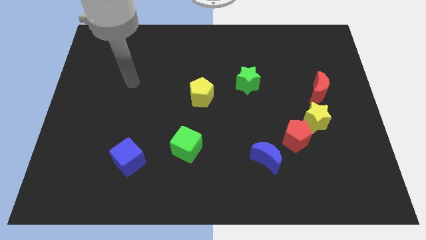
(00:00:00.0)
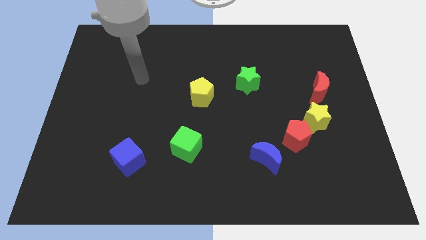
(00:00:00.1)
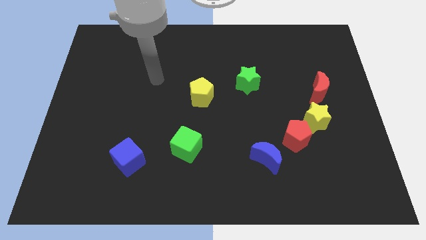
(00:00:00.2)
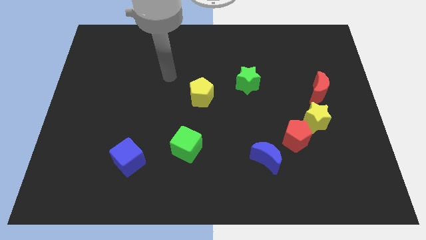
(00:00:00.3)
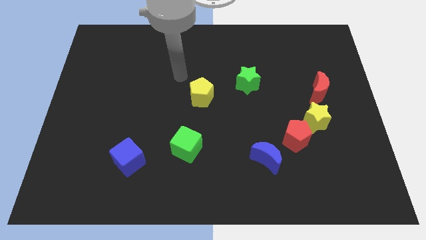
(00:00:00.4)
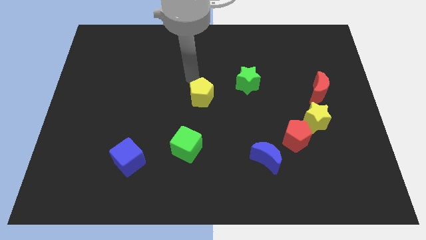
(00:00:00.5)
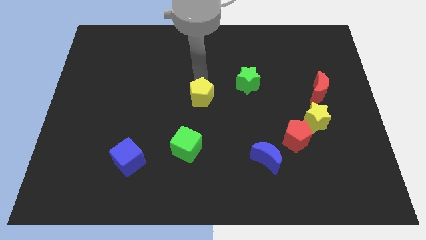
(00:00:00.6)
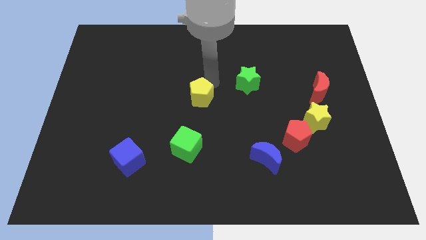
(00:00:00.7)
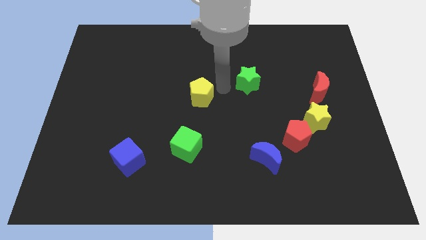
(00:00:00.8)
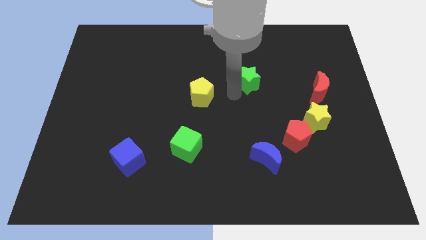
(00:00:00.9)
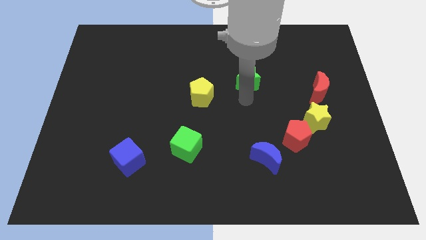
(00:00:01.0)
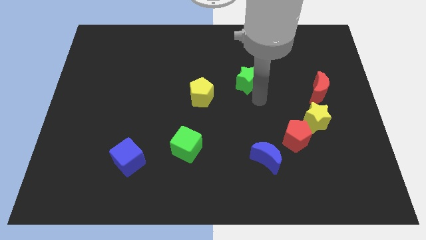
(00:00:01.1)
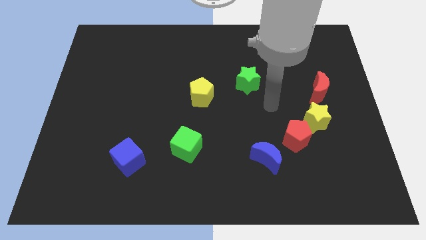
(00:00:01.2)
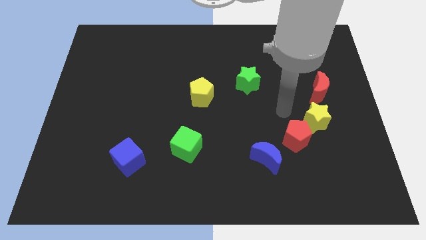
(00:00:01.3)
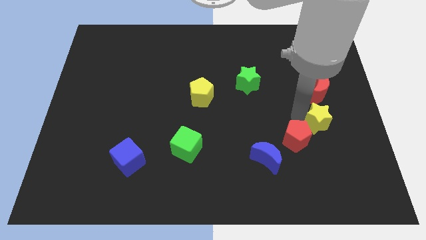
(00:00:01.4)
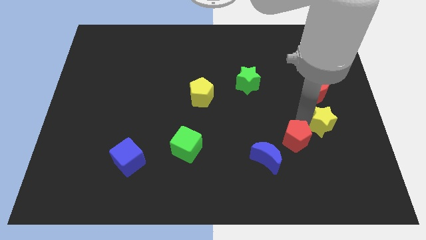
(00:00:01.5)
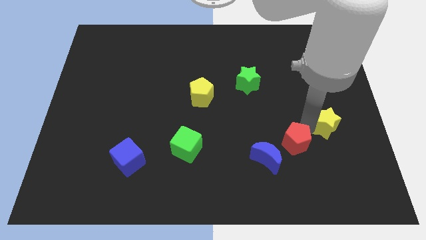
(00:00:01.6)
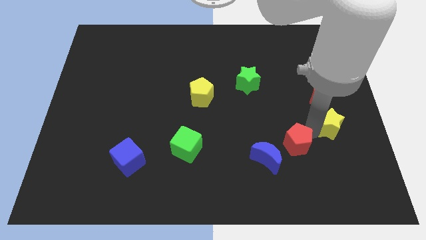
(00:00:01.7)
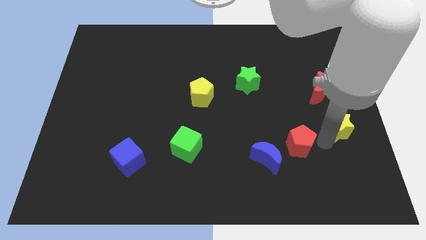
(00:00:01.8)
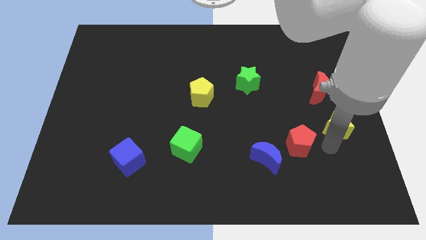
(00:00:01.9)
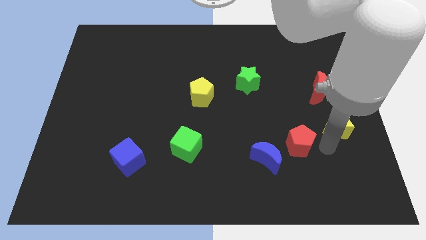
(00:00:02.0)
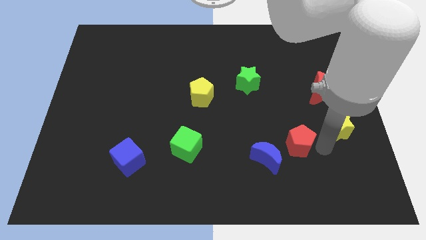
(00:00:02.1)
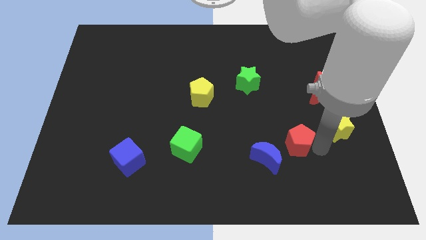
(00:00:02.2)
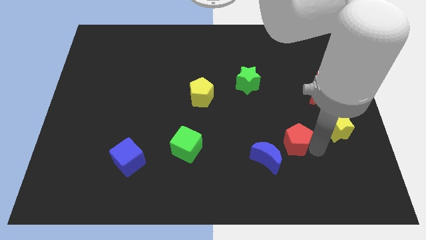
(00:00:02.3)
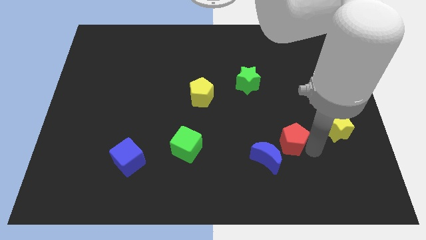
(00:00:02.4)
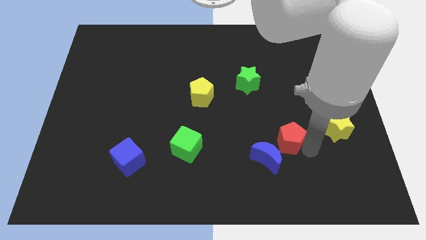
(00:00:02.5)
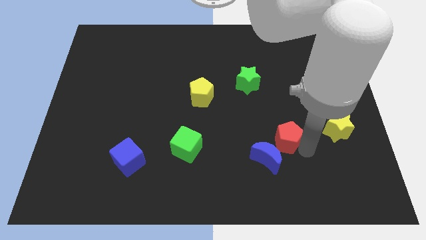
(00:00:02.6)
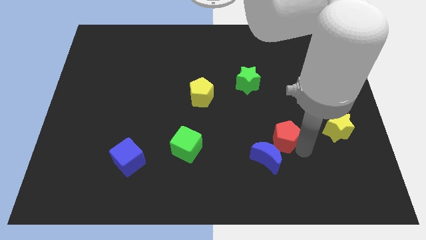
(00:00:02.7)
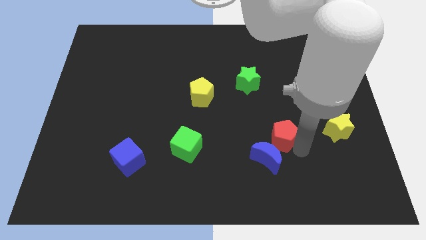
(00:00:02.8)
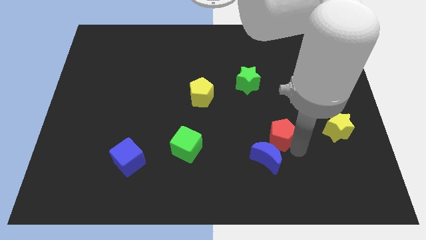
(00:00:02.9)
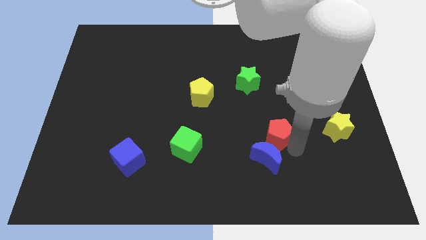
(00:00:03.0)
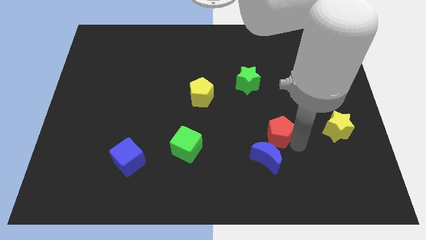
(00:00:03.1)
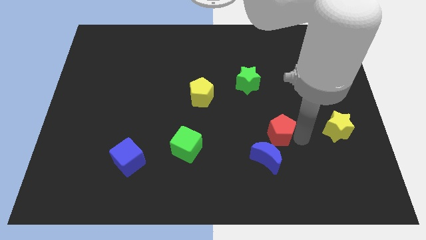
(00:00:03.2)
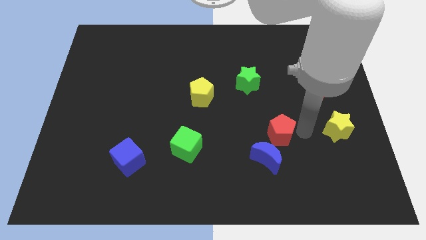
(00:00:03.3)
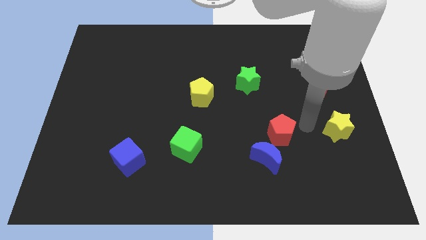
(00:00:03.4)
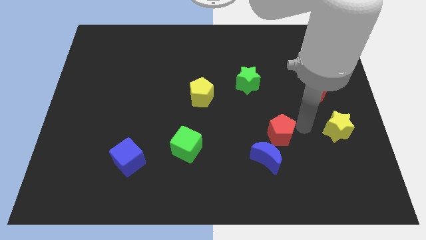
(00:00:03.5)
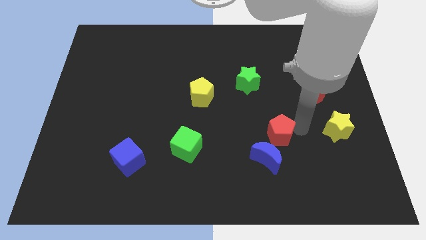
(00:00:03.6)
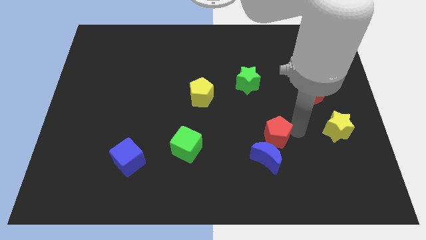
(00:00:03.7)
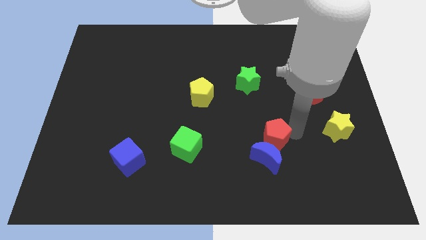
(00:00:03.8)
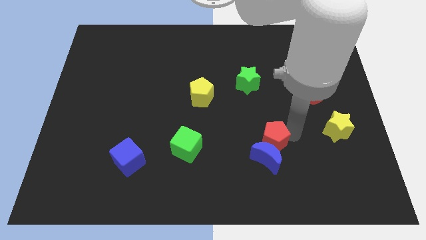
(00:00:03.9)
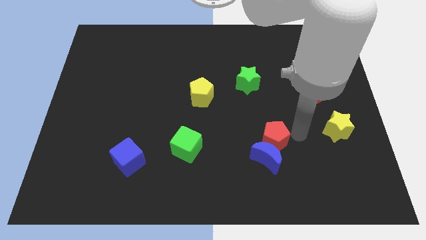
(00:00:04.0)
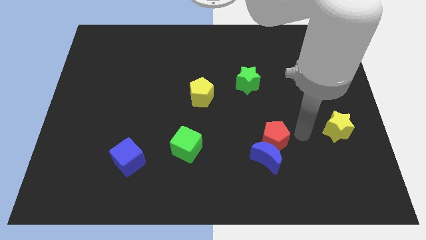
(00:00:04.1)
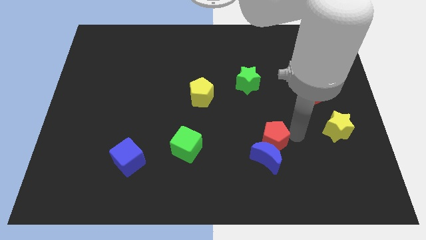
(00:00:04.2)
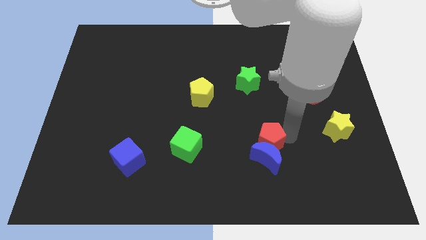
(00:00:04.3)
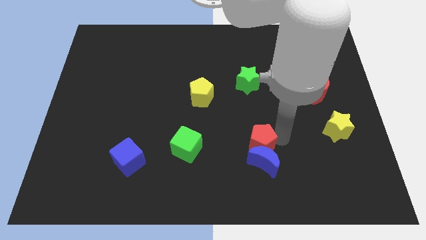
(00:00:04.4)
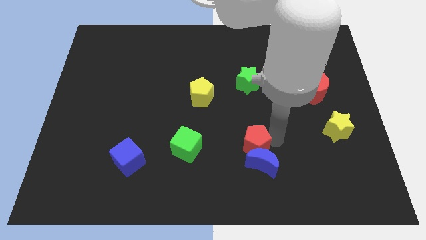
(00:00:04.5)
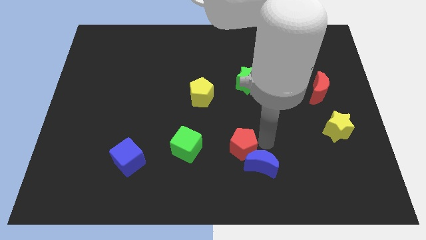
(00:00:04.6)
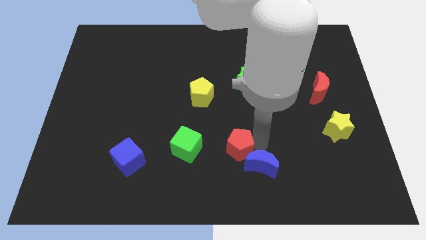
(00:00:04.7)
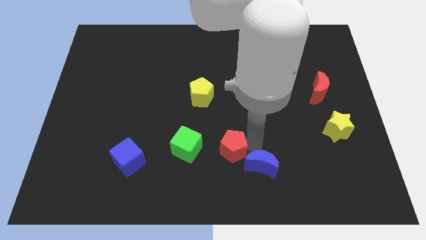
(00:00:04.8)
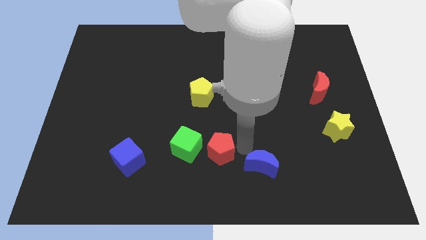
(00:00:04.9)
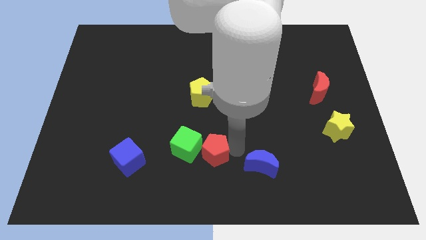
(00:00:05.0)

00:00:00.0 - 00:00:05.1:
slide the red pentagon next to the green cube

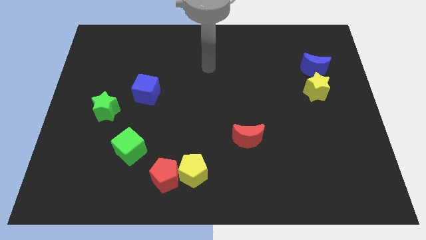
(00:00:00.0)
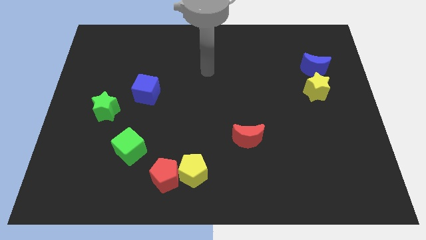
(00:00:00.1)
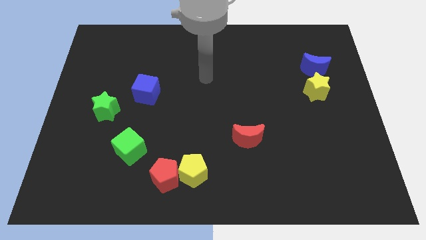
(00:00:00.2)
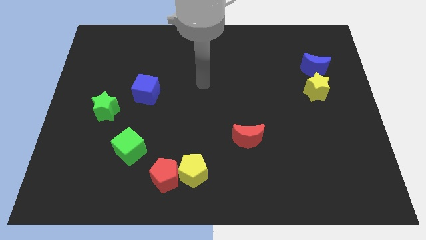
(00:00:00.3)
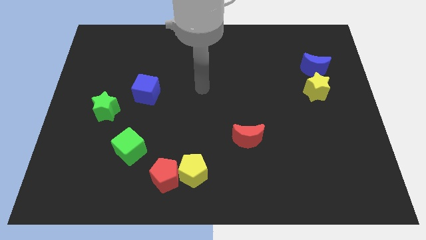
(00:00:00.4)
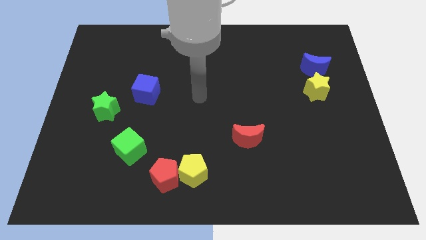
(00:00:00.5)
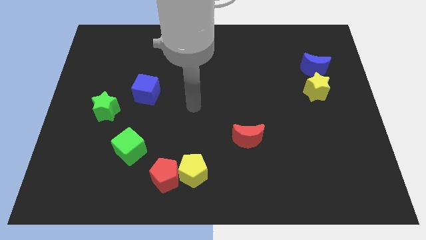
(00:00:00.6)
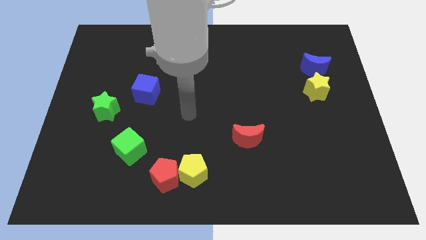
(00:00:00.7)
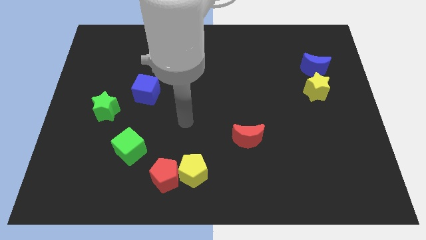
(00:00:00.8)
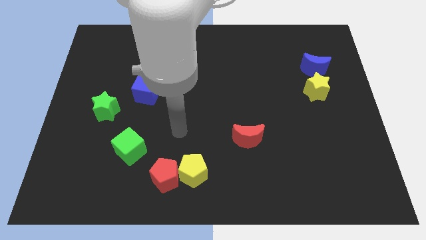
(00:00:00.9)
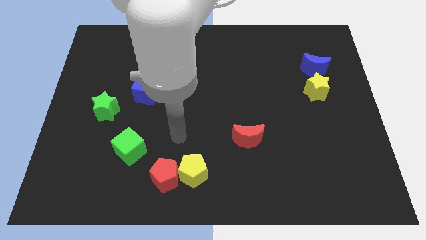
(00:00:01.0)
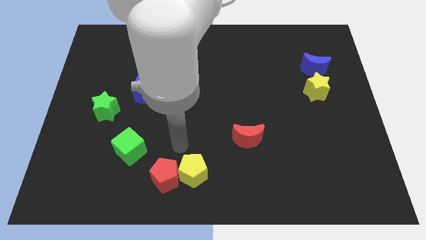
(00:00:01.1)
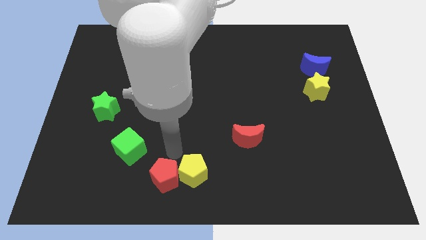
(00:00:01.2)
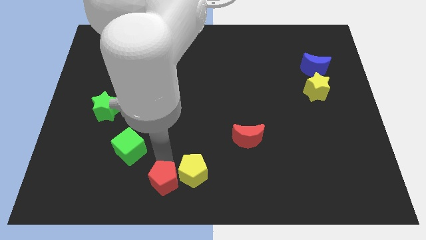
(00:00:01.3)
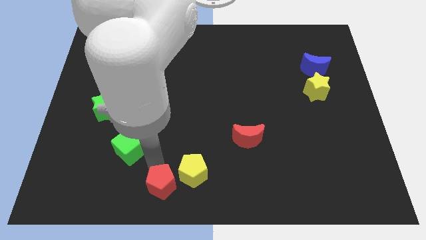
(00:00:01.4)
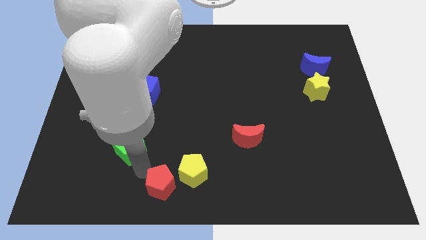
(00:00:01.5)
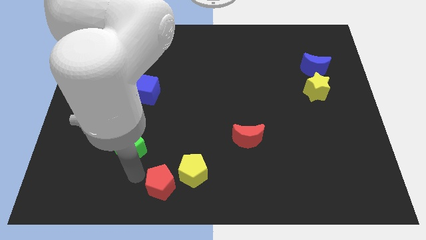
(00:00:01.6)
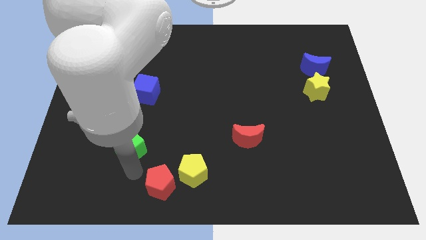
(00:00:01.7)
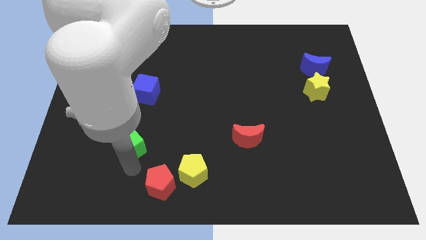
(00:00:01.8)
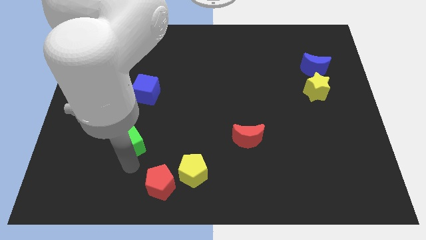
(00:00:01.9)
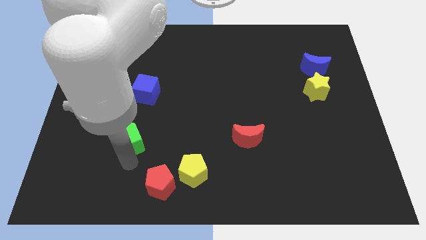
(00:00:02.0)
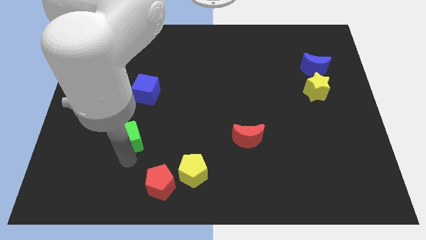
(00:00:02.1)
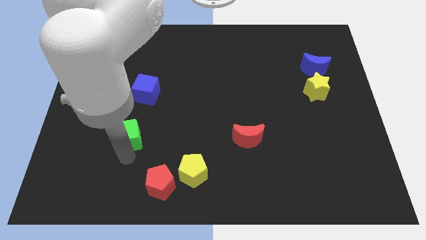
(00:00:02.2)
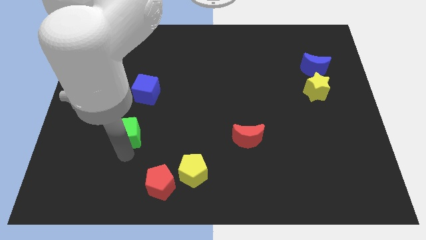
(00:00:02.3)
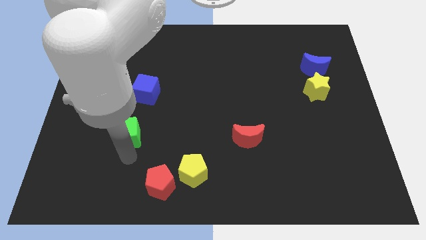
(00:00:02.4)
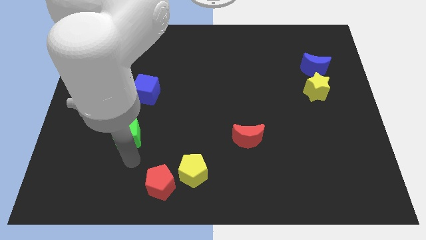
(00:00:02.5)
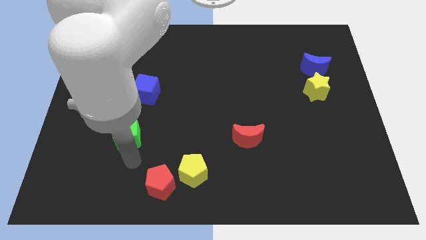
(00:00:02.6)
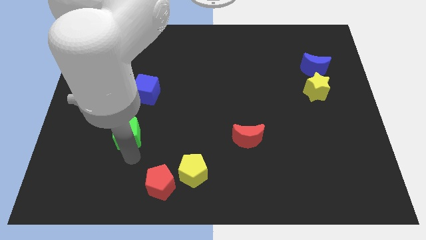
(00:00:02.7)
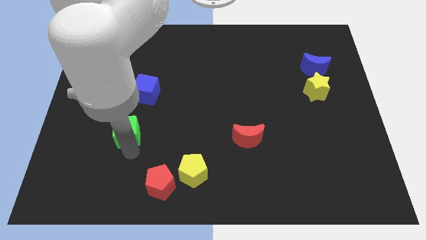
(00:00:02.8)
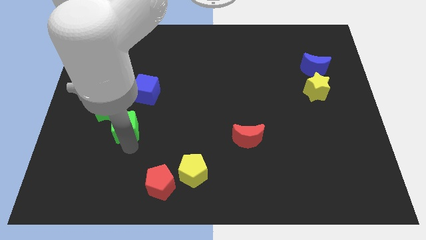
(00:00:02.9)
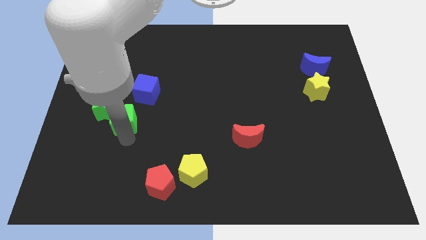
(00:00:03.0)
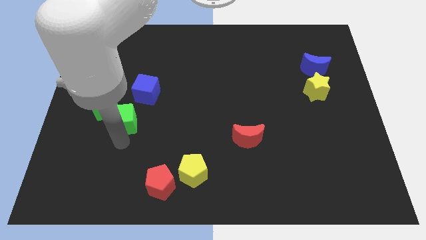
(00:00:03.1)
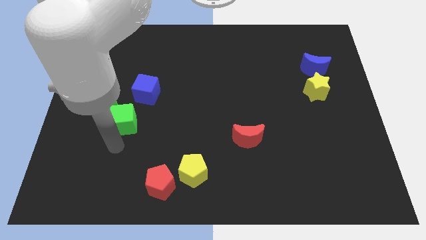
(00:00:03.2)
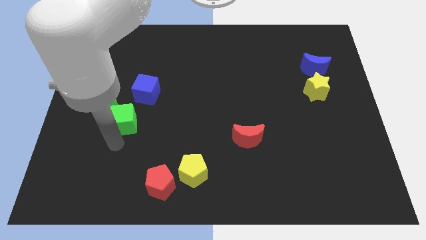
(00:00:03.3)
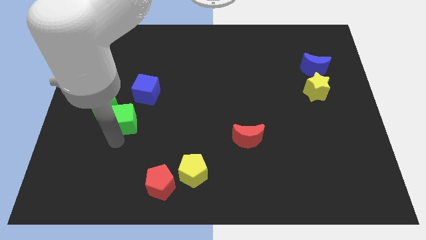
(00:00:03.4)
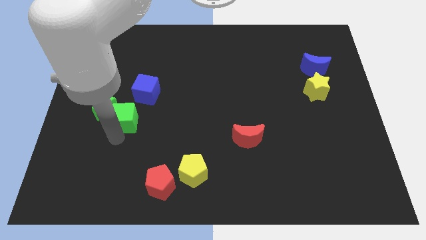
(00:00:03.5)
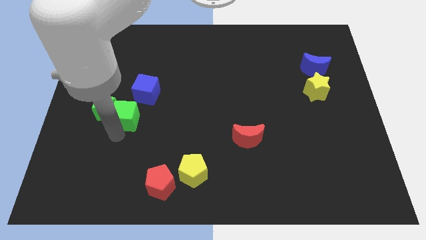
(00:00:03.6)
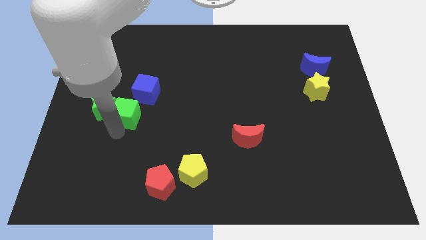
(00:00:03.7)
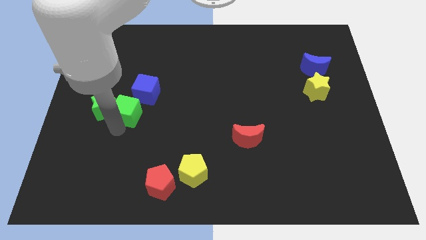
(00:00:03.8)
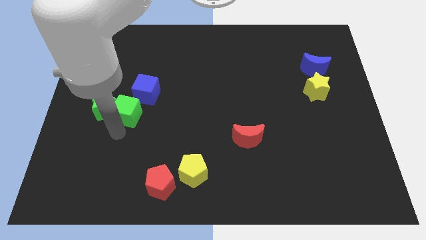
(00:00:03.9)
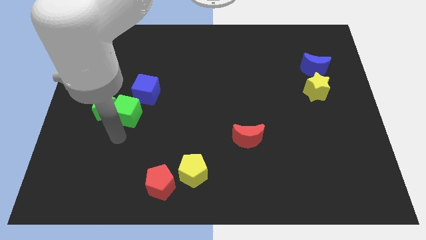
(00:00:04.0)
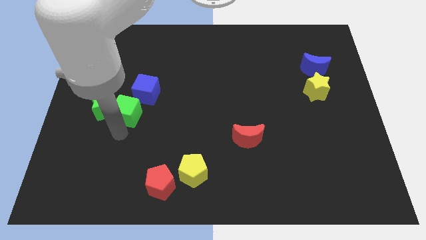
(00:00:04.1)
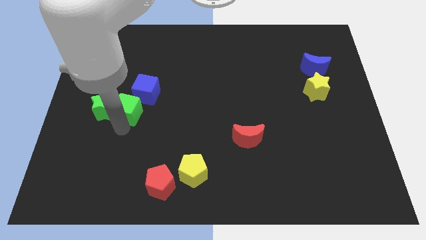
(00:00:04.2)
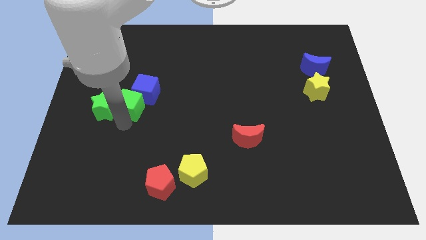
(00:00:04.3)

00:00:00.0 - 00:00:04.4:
slide the green cube to the blue cube
